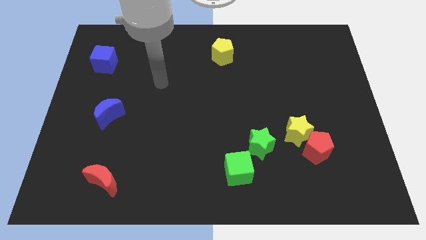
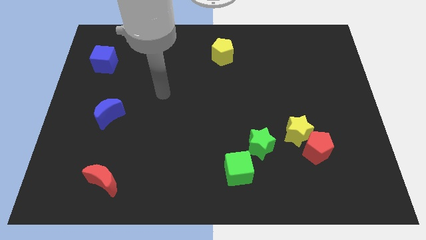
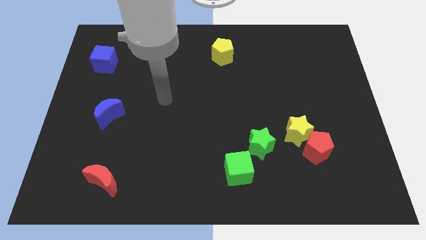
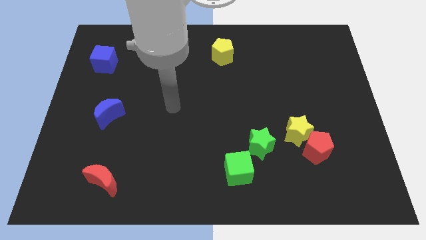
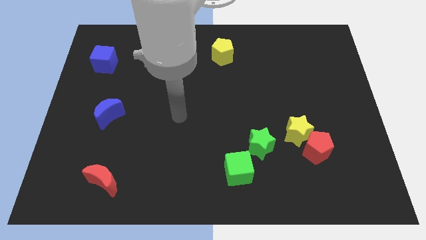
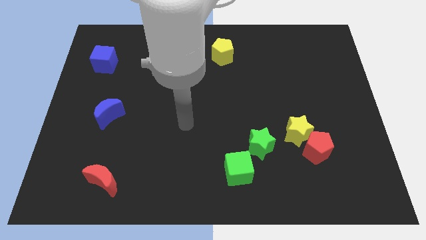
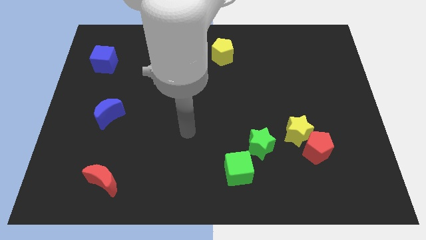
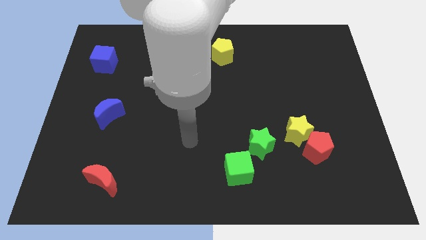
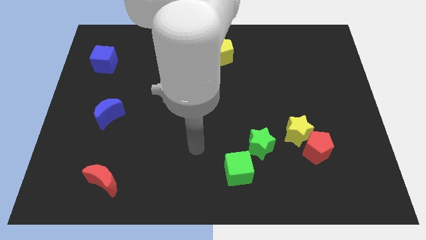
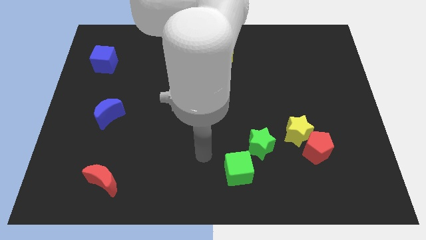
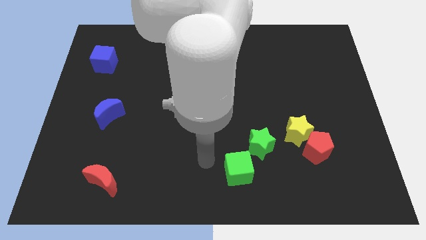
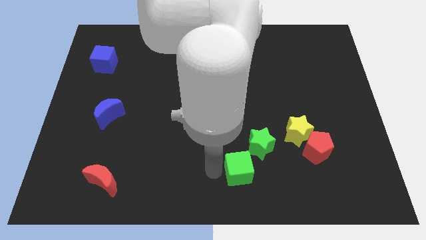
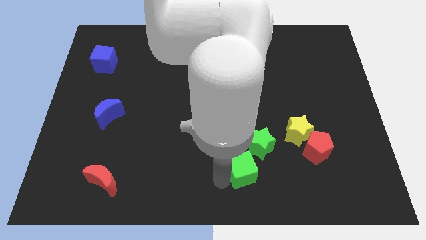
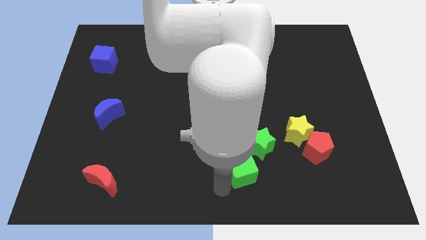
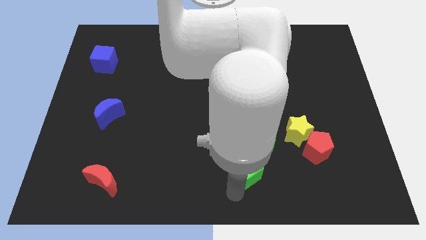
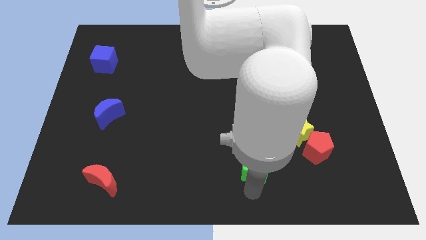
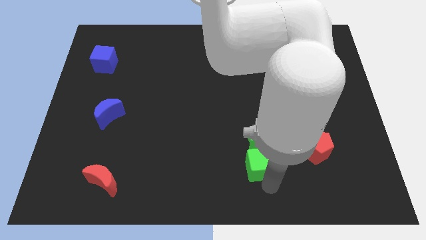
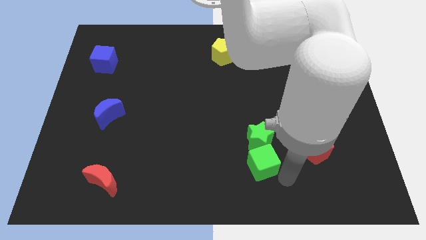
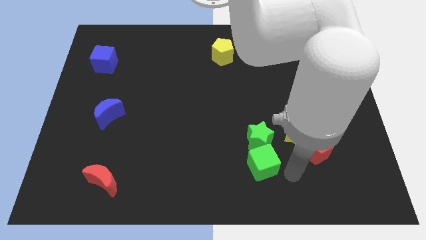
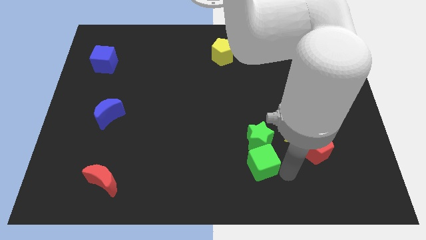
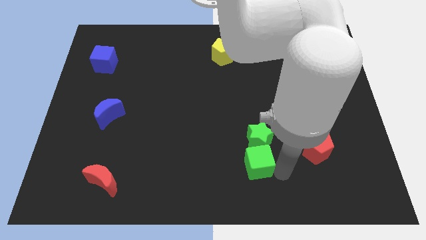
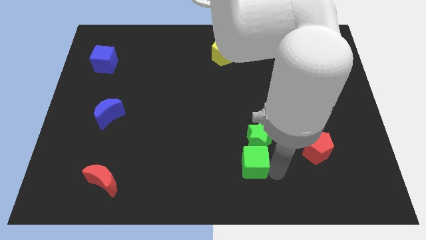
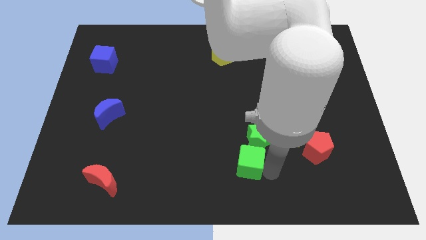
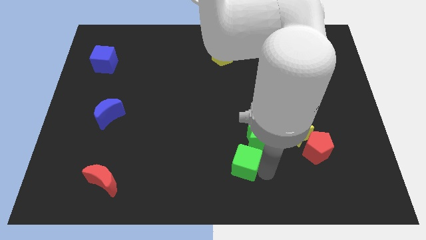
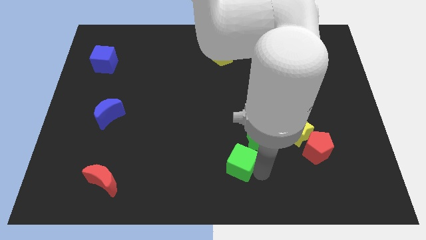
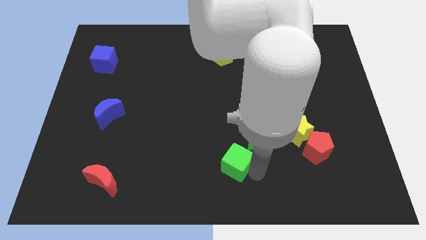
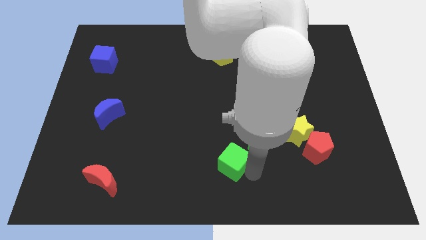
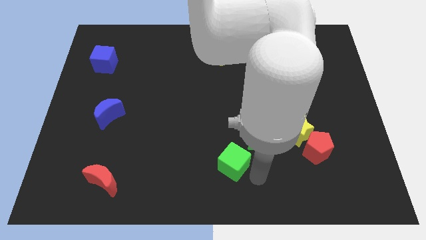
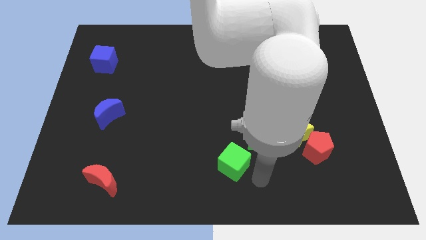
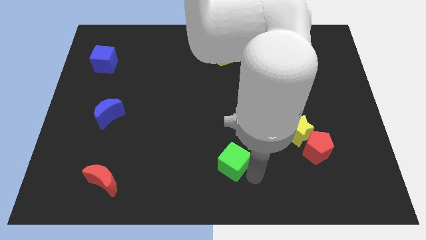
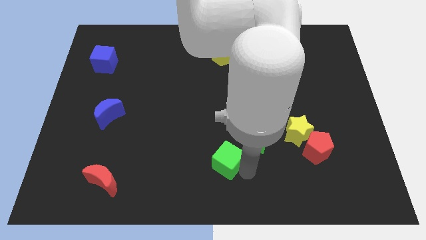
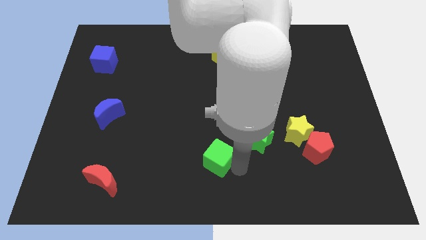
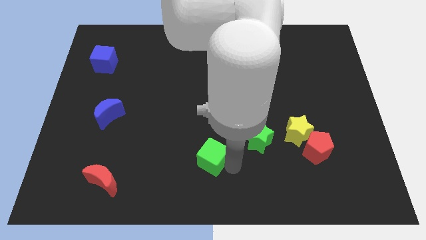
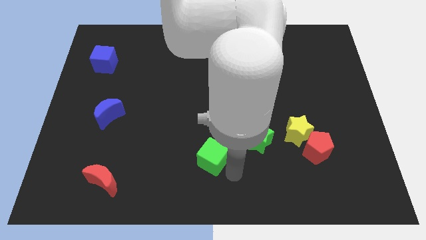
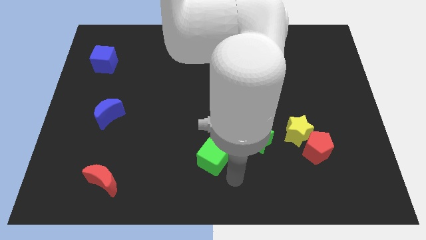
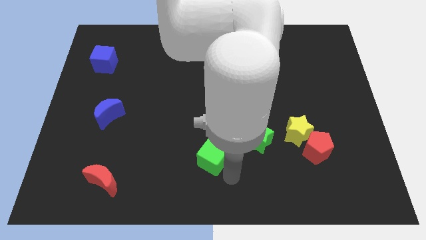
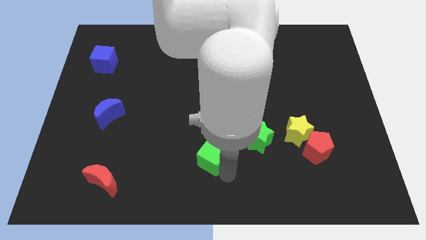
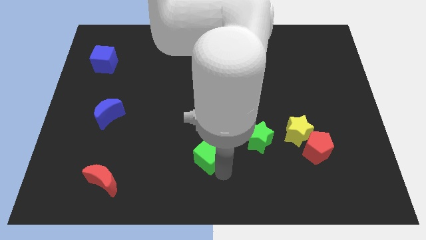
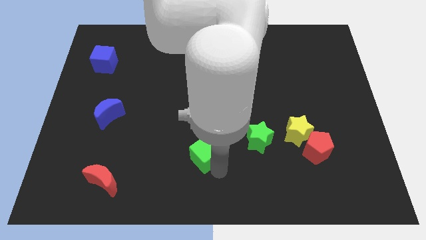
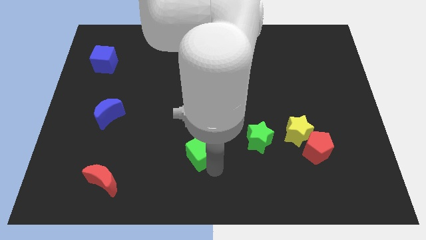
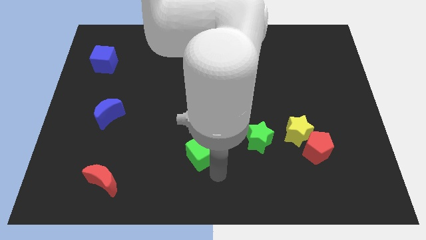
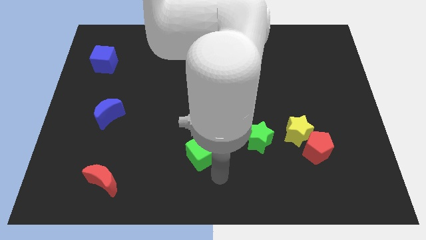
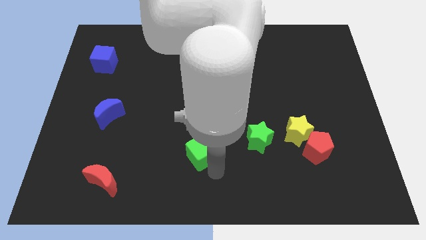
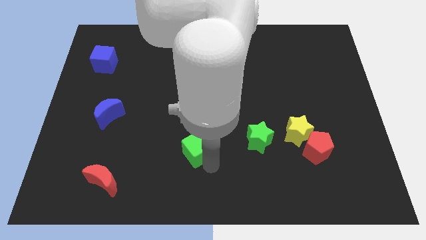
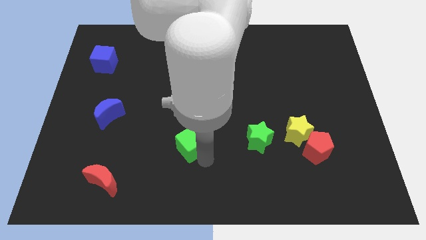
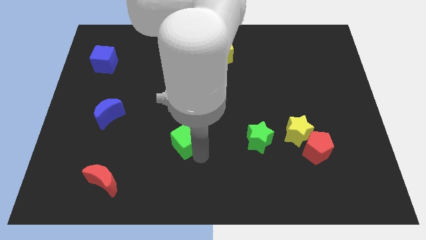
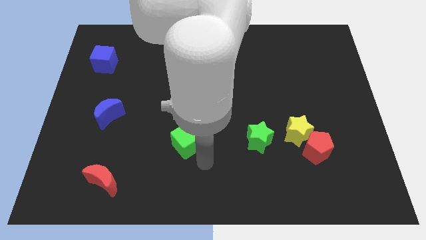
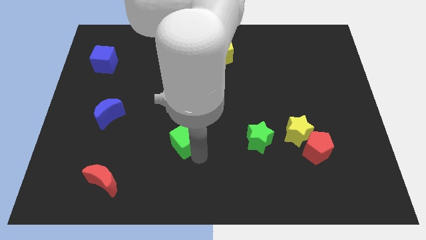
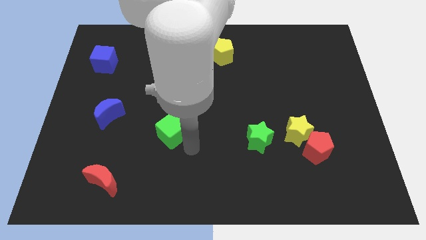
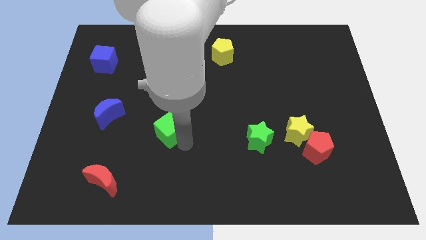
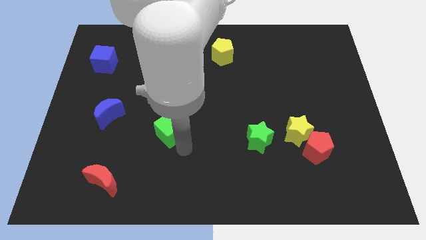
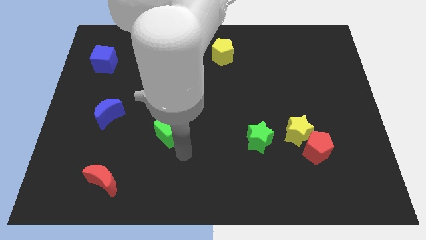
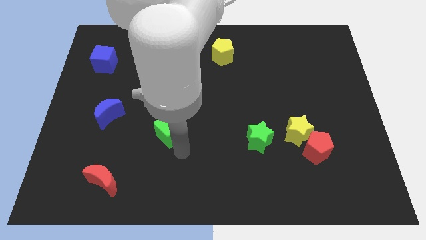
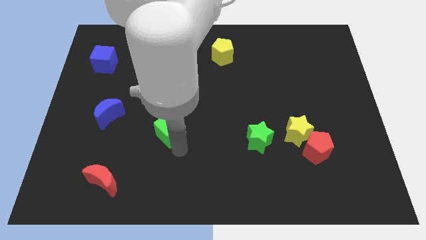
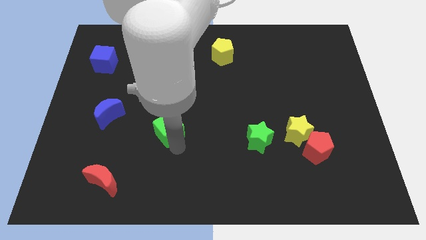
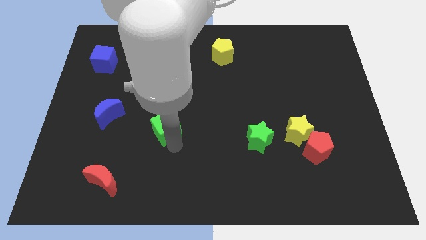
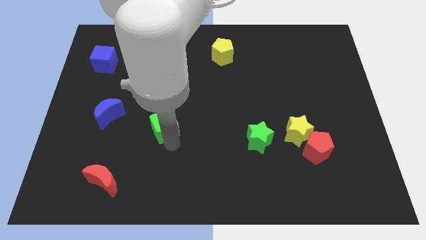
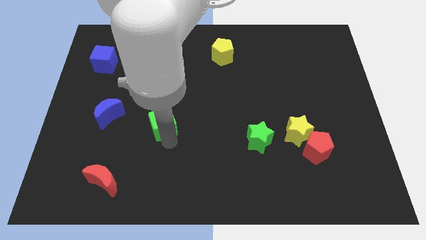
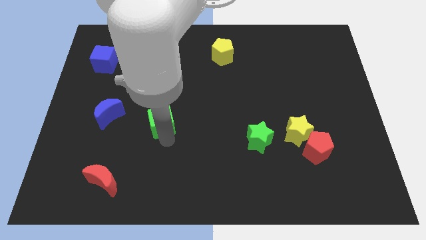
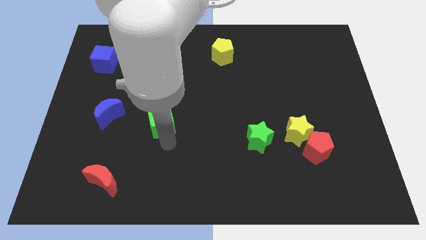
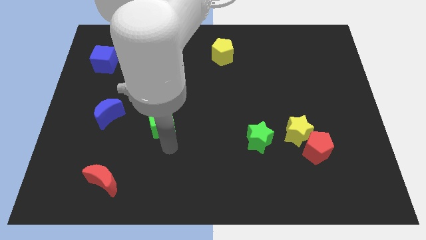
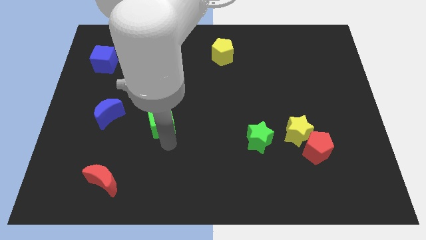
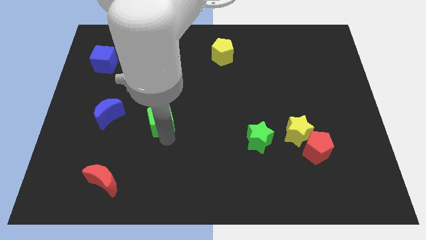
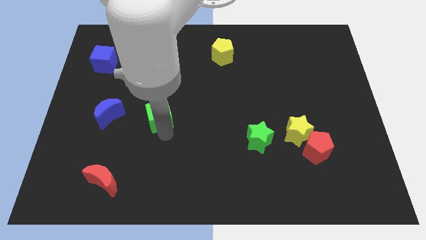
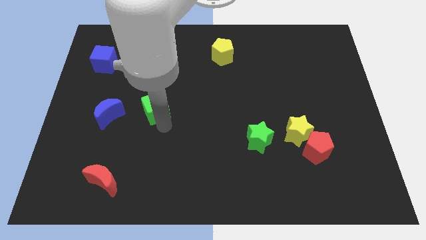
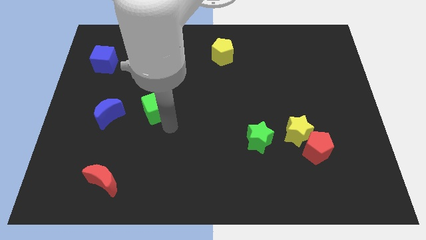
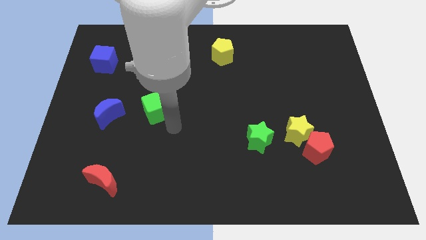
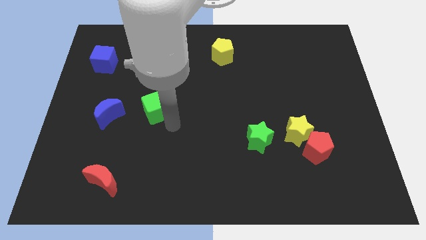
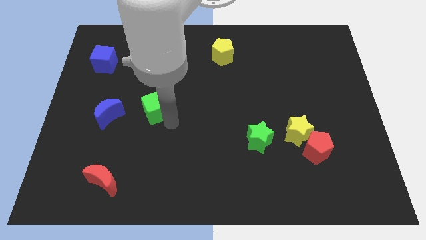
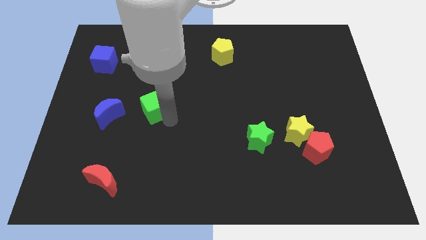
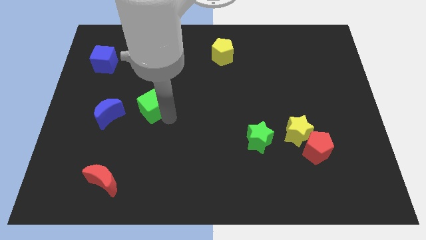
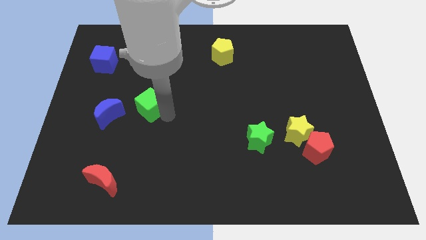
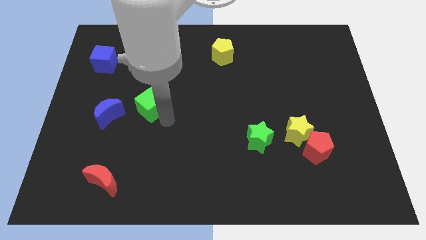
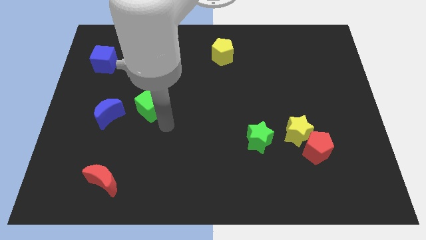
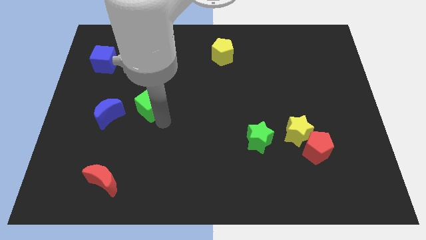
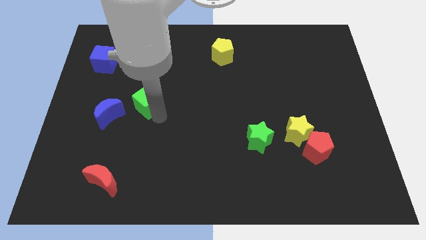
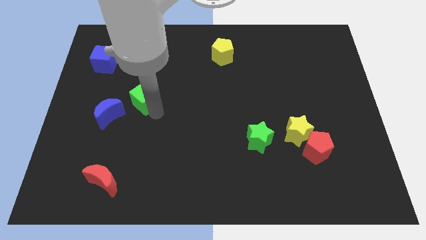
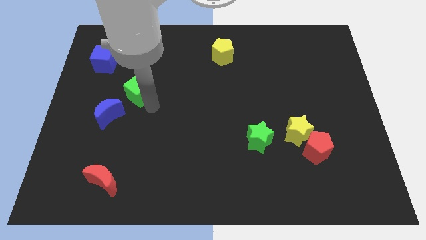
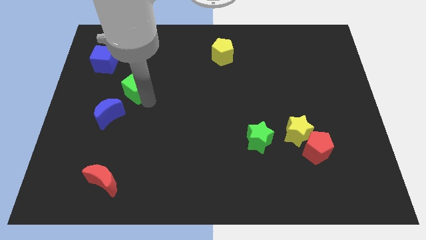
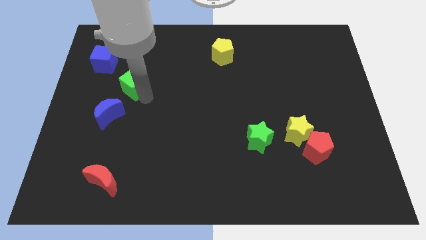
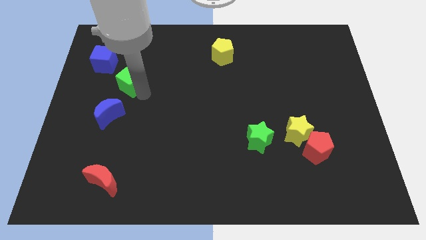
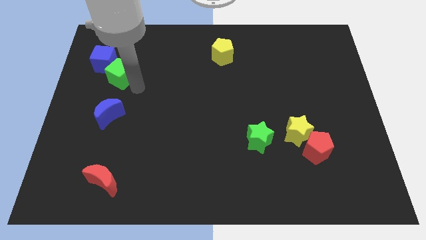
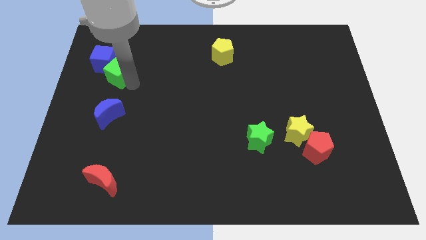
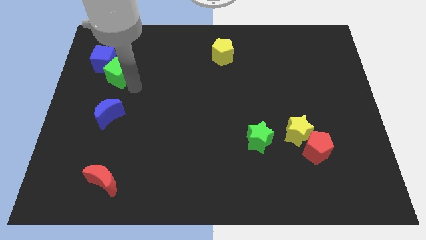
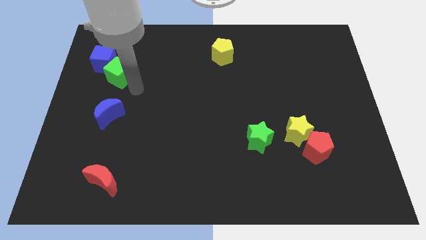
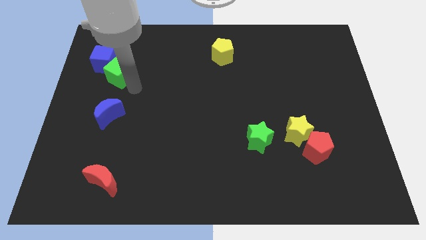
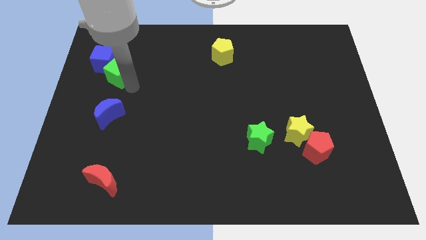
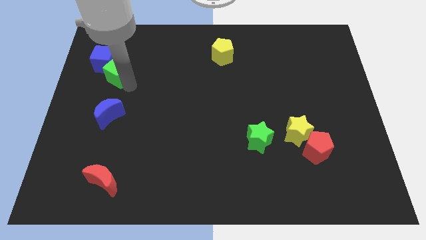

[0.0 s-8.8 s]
push the green cube to the blue cube
